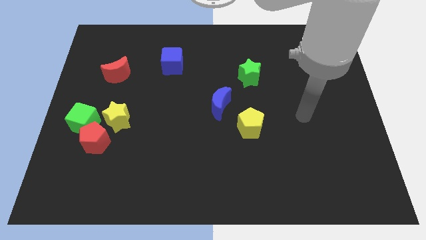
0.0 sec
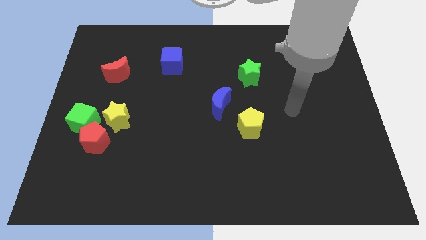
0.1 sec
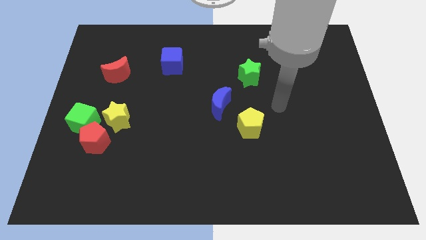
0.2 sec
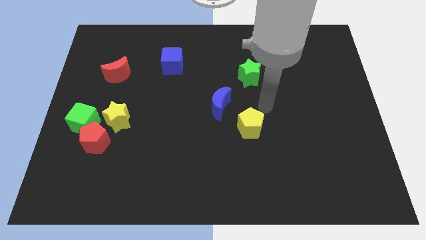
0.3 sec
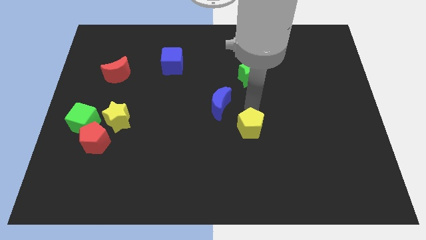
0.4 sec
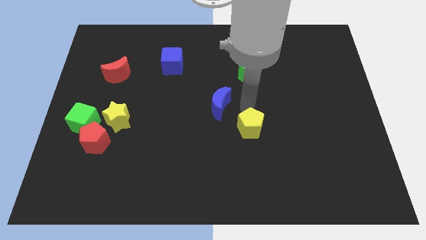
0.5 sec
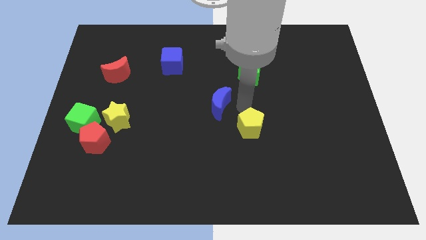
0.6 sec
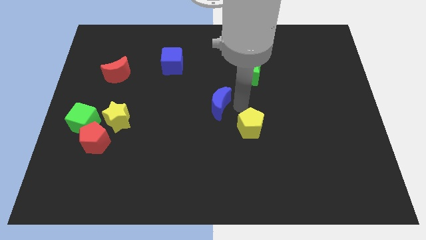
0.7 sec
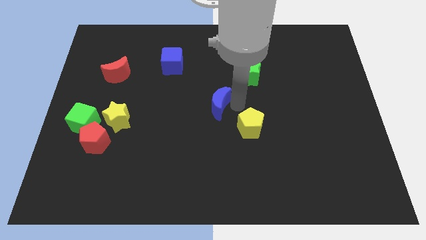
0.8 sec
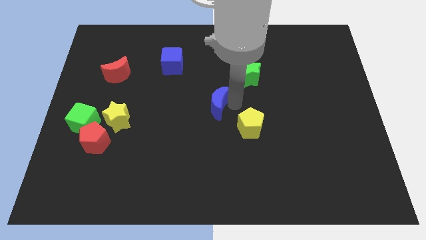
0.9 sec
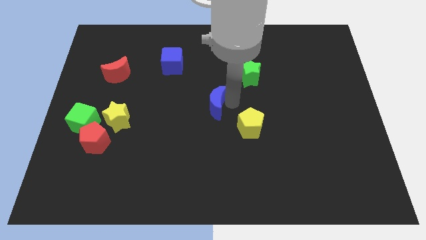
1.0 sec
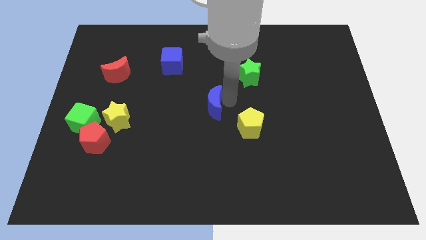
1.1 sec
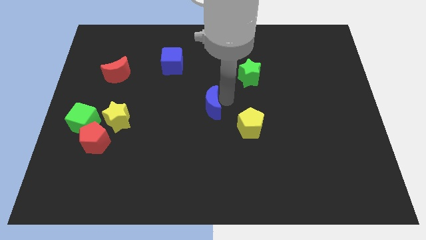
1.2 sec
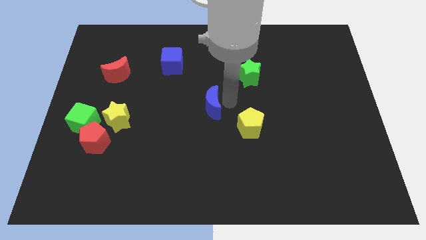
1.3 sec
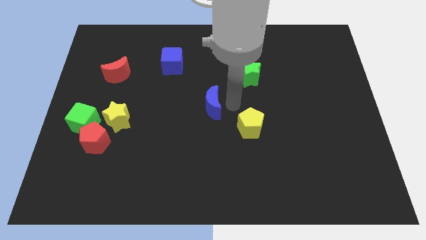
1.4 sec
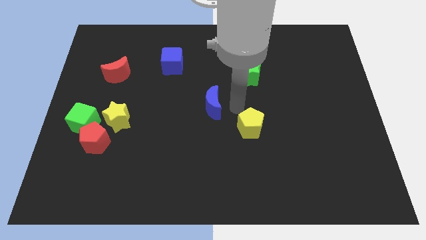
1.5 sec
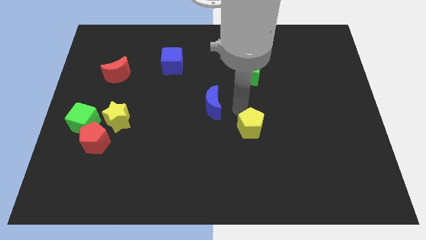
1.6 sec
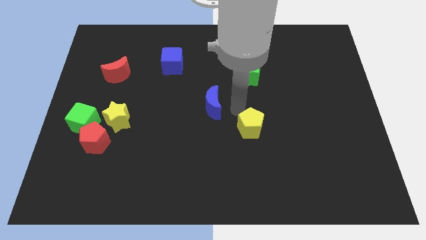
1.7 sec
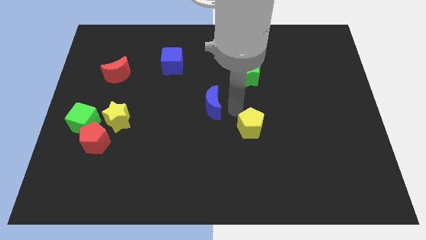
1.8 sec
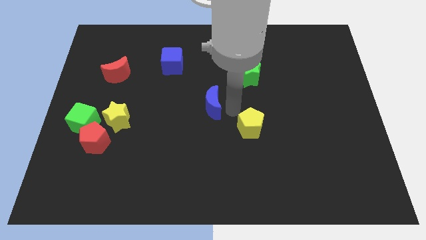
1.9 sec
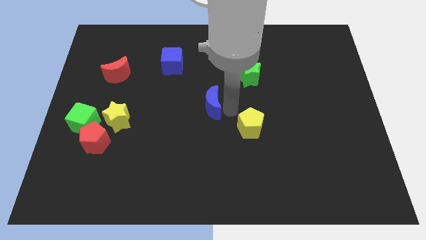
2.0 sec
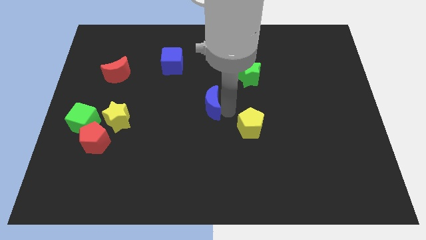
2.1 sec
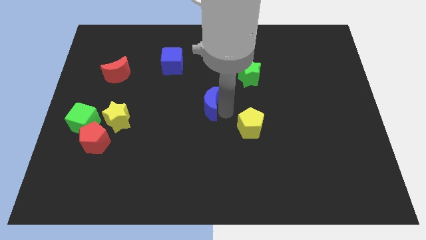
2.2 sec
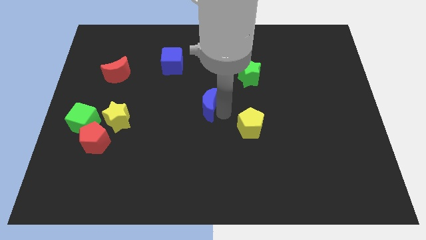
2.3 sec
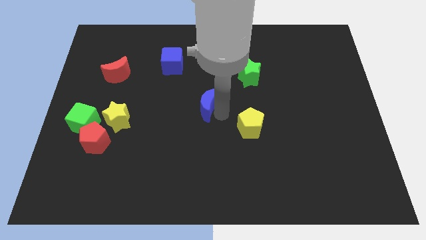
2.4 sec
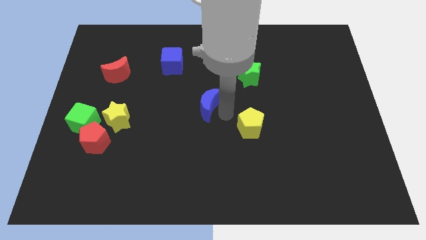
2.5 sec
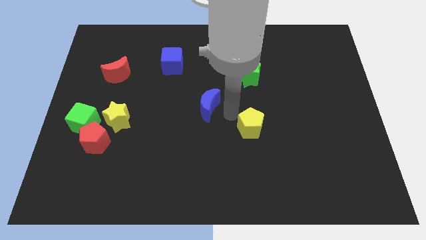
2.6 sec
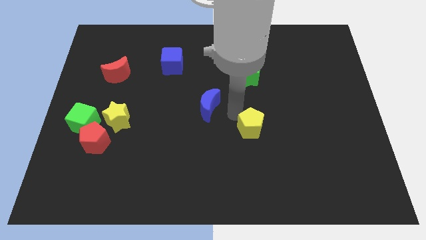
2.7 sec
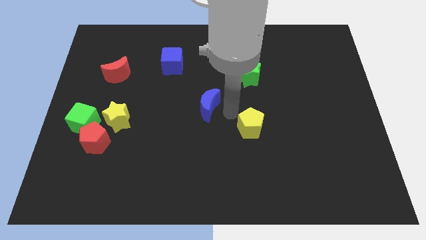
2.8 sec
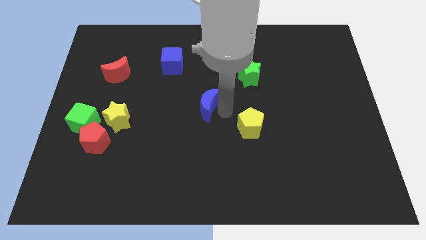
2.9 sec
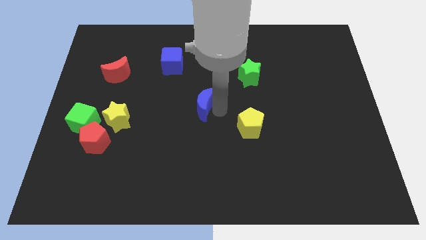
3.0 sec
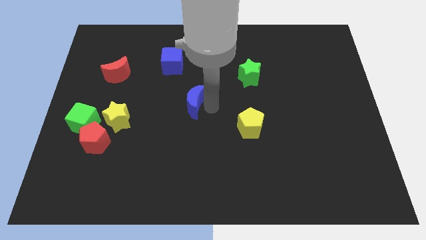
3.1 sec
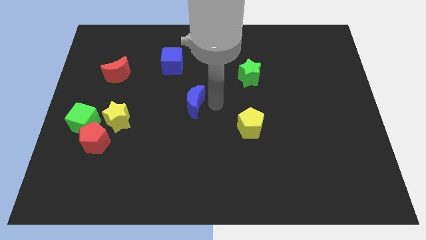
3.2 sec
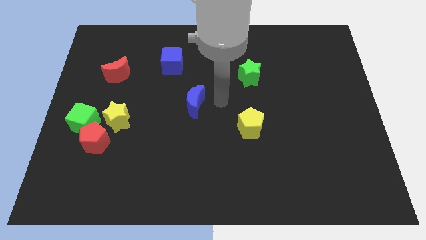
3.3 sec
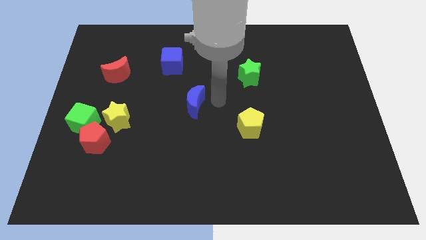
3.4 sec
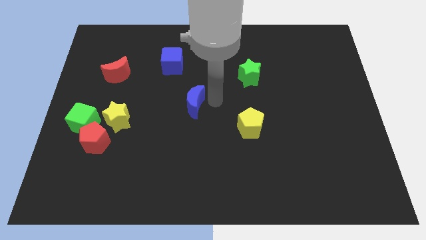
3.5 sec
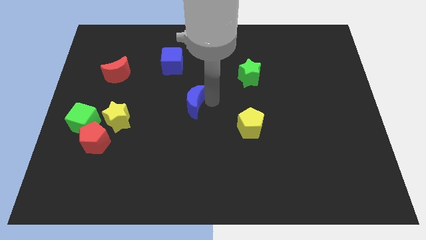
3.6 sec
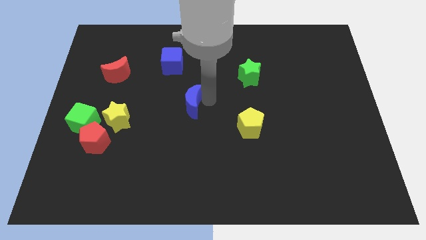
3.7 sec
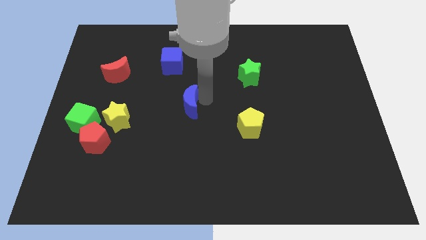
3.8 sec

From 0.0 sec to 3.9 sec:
slide the blue moon to the left a bit

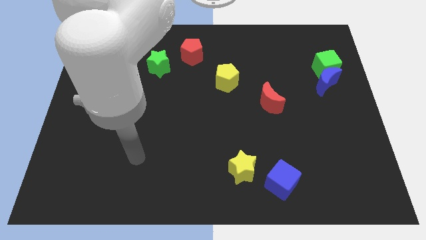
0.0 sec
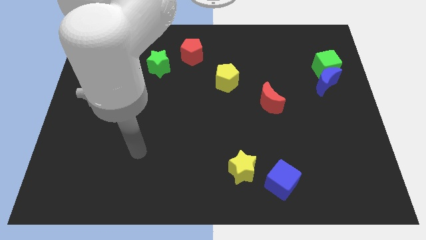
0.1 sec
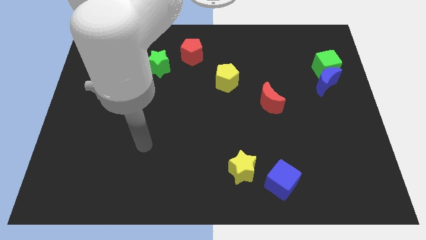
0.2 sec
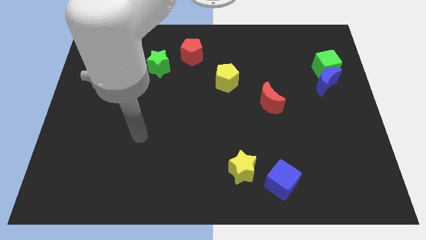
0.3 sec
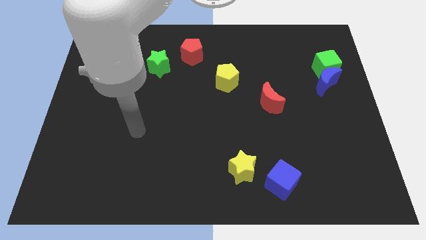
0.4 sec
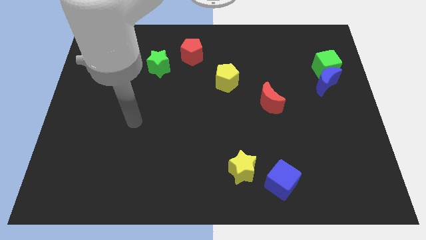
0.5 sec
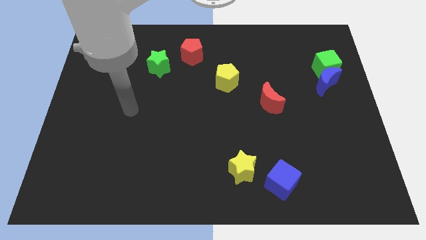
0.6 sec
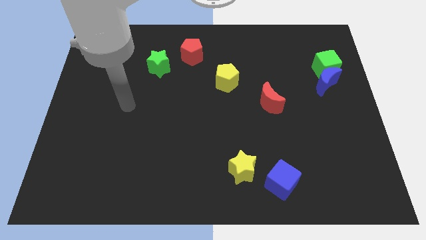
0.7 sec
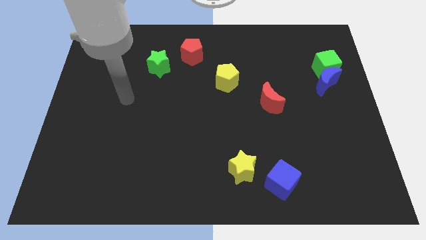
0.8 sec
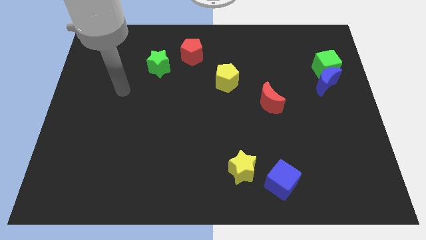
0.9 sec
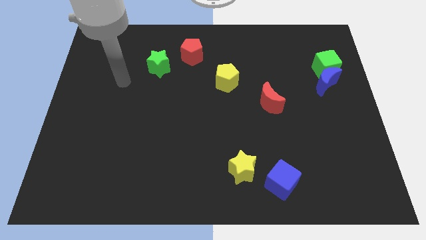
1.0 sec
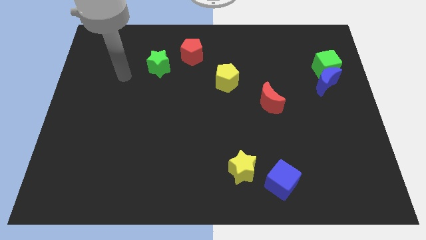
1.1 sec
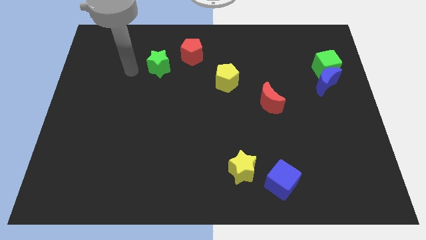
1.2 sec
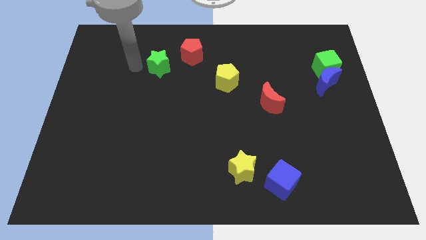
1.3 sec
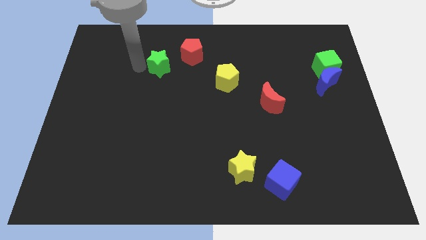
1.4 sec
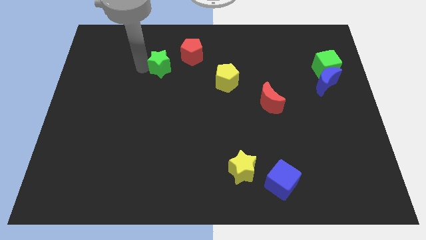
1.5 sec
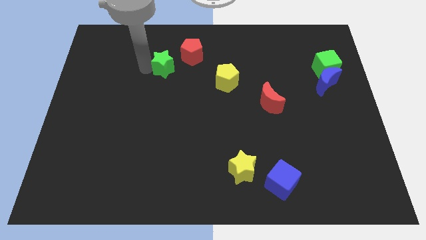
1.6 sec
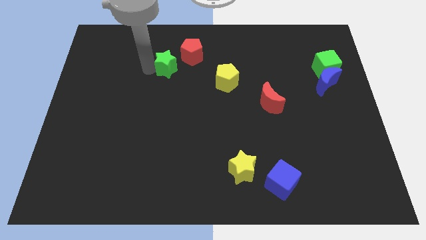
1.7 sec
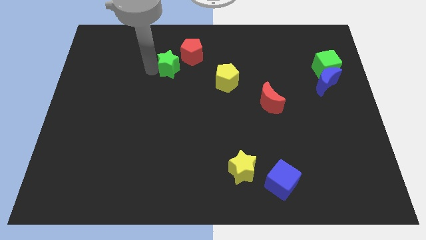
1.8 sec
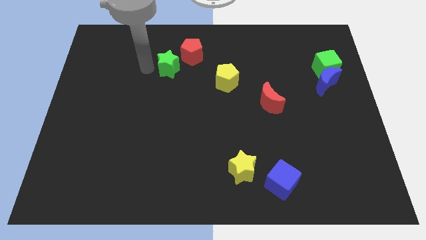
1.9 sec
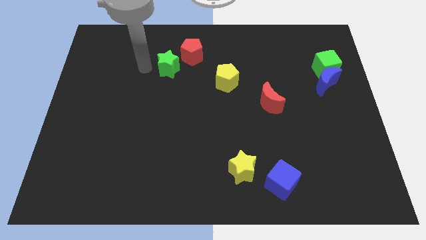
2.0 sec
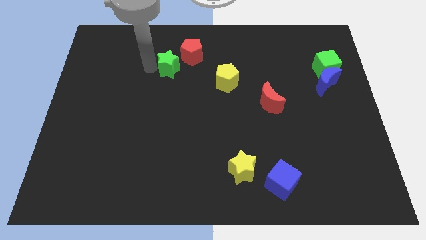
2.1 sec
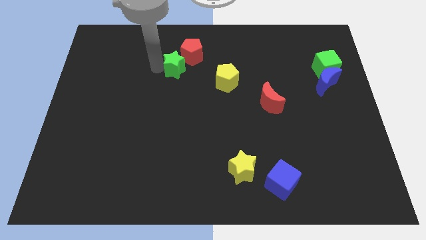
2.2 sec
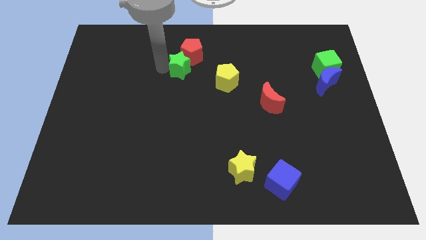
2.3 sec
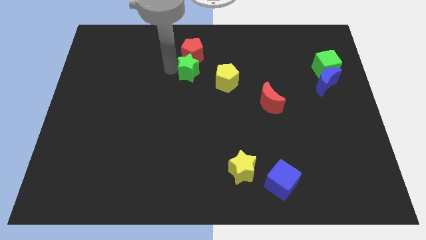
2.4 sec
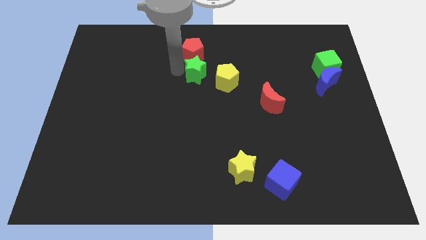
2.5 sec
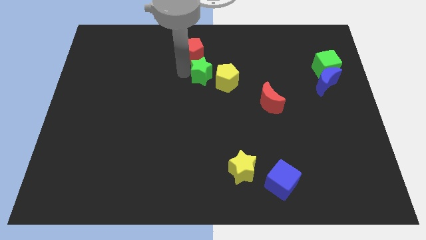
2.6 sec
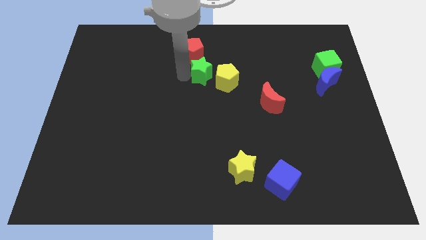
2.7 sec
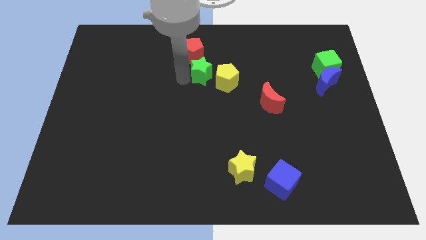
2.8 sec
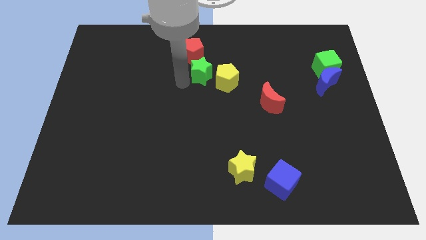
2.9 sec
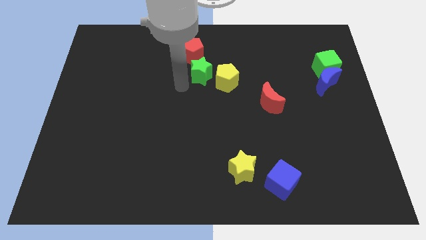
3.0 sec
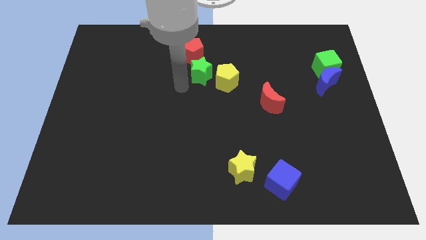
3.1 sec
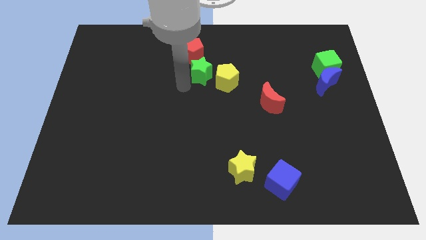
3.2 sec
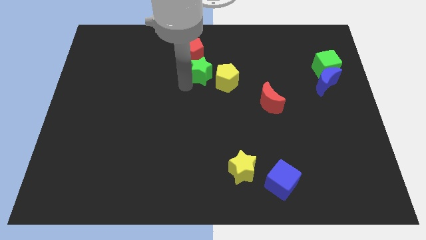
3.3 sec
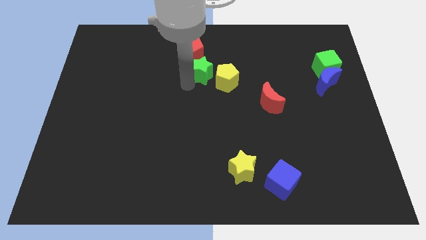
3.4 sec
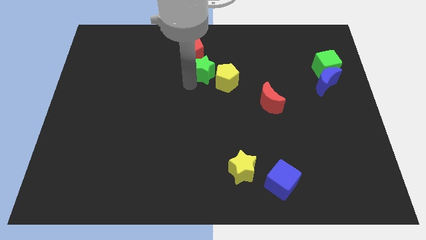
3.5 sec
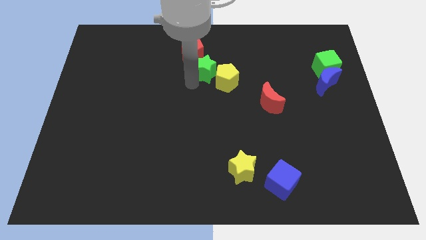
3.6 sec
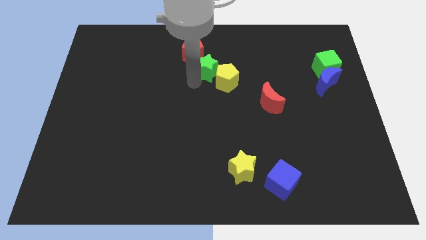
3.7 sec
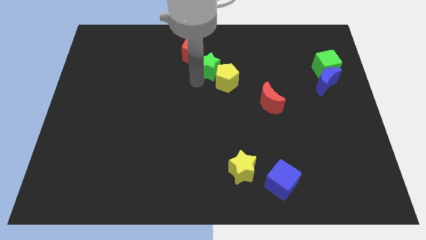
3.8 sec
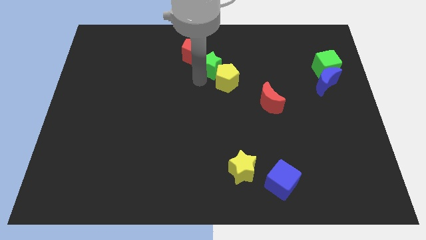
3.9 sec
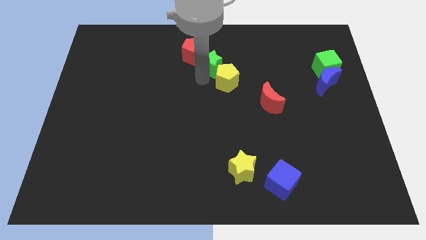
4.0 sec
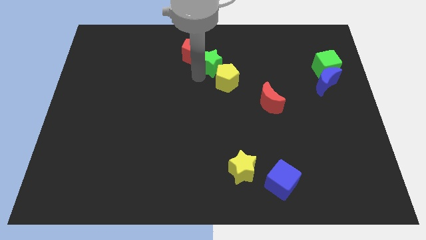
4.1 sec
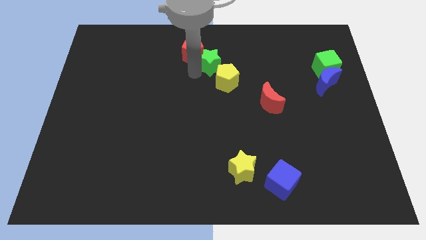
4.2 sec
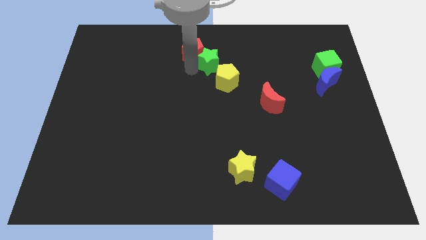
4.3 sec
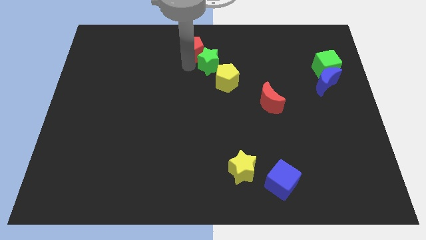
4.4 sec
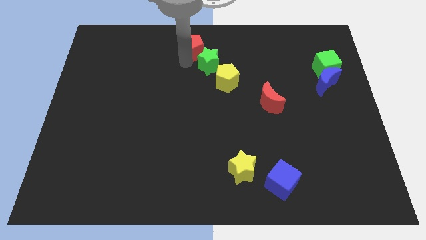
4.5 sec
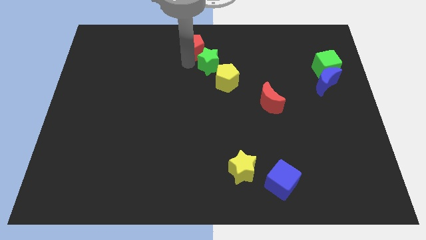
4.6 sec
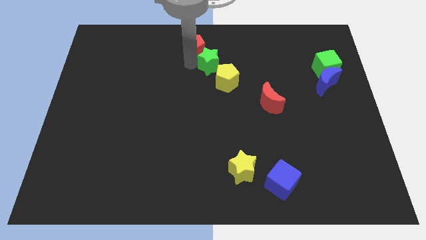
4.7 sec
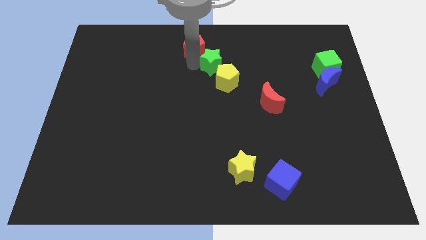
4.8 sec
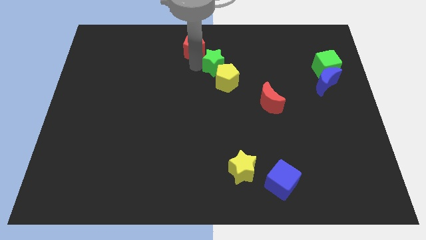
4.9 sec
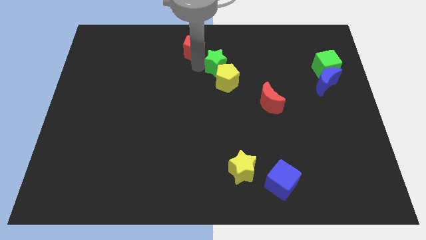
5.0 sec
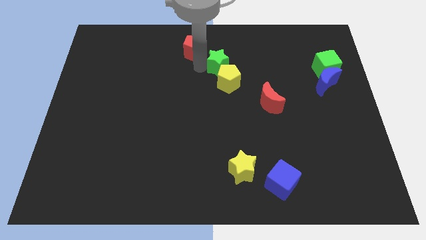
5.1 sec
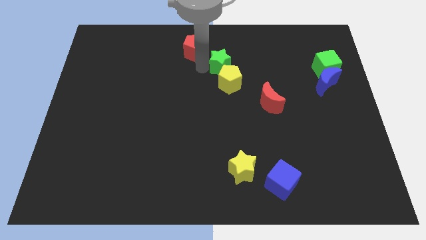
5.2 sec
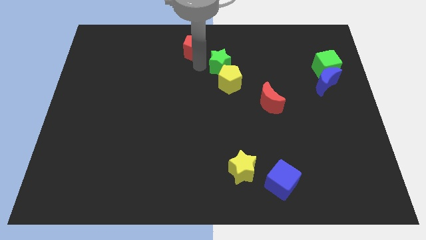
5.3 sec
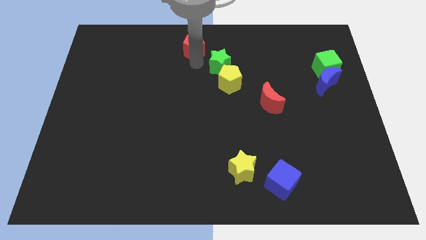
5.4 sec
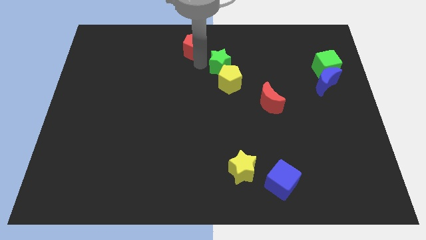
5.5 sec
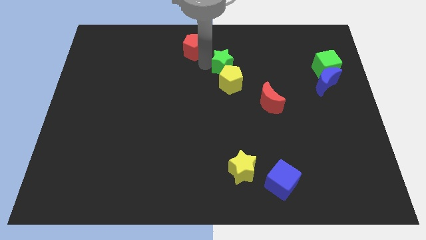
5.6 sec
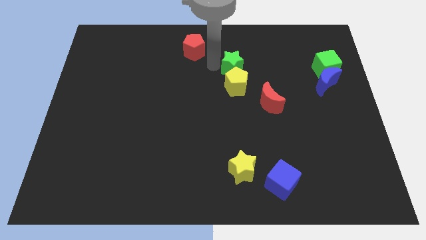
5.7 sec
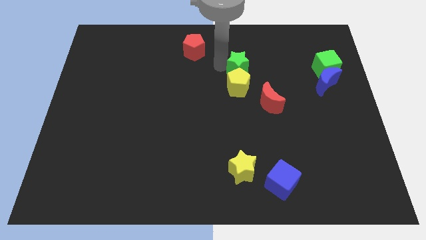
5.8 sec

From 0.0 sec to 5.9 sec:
move the green star to the right
